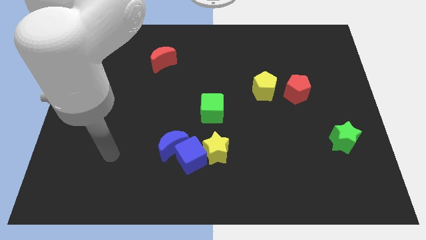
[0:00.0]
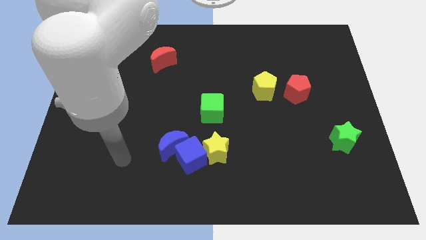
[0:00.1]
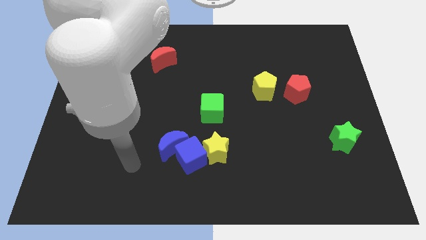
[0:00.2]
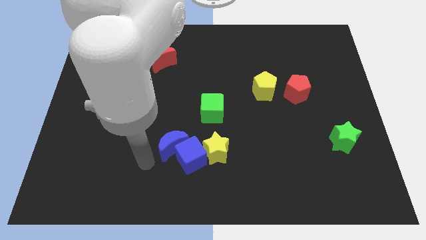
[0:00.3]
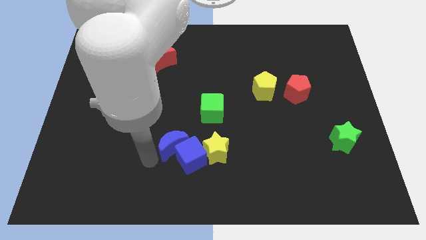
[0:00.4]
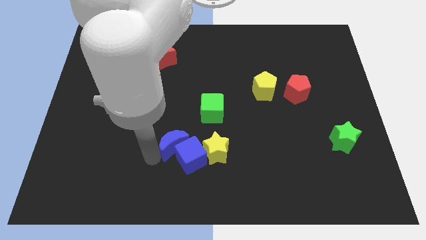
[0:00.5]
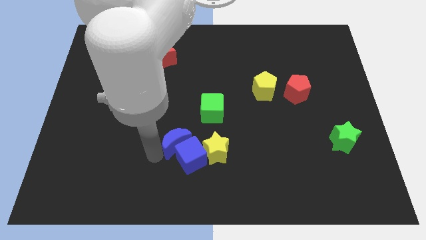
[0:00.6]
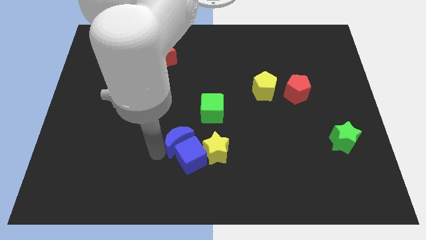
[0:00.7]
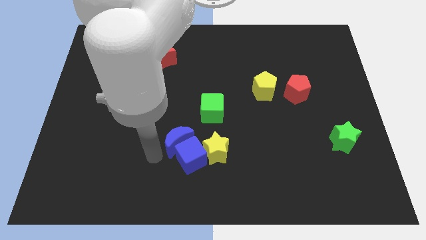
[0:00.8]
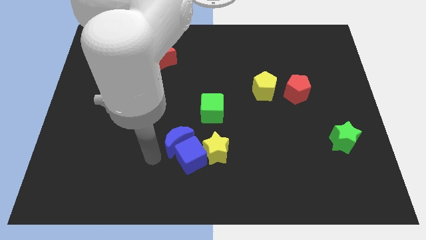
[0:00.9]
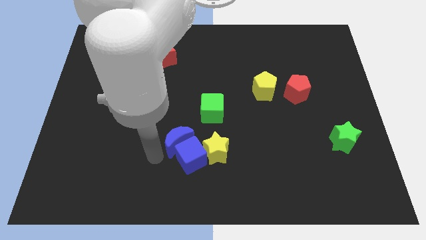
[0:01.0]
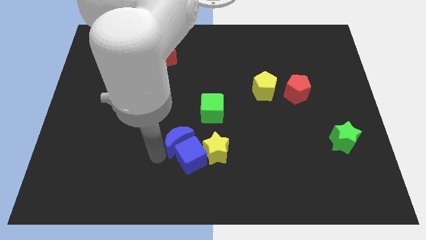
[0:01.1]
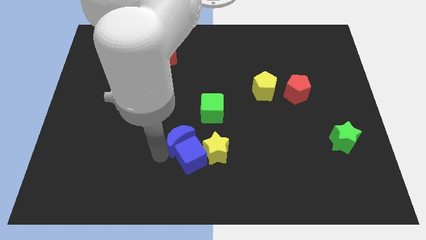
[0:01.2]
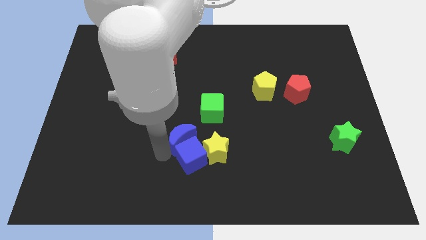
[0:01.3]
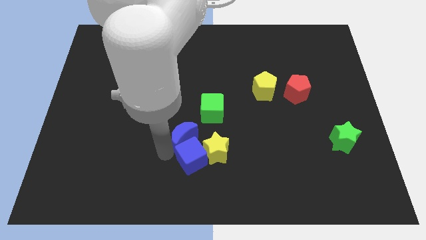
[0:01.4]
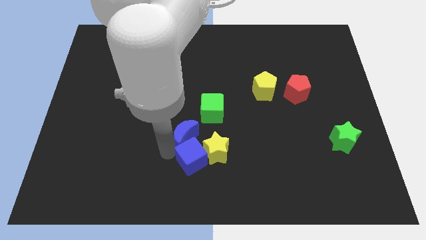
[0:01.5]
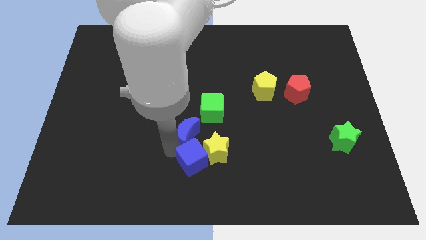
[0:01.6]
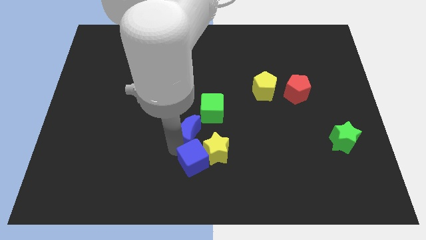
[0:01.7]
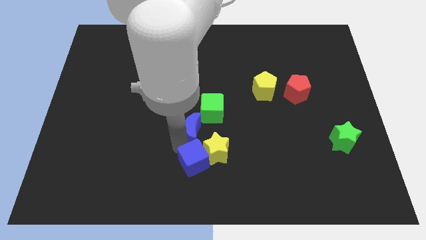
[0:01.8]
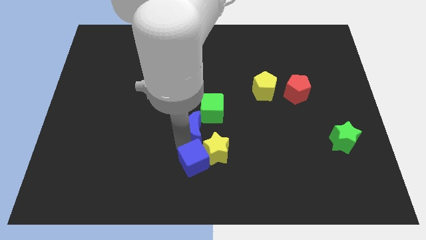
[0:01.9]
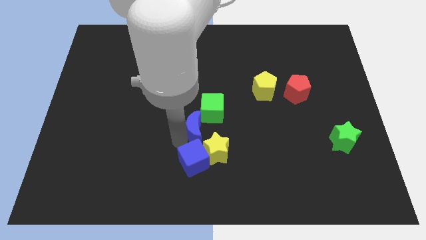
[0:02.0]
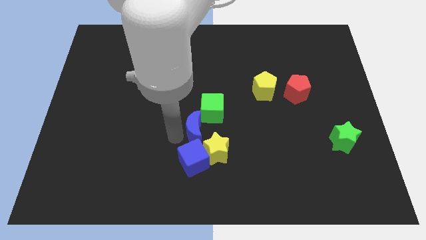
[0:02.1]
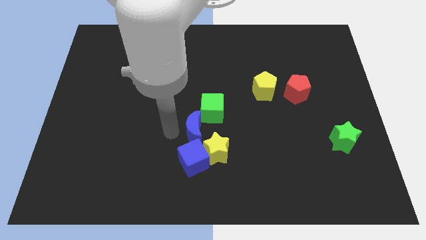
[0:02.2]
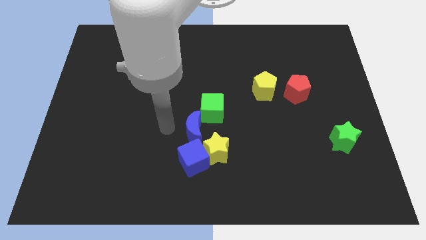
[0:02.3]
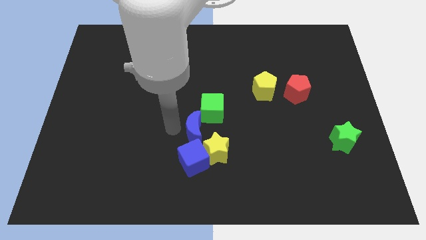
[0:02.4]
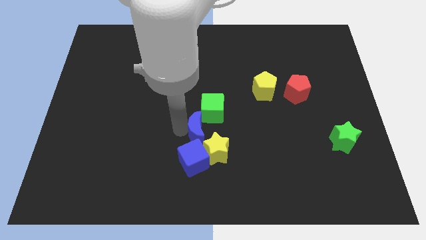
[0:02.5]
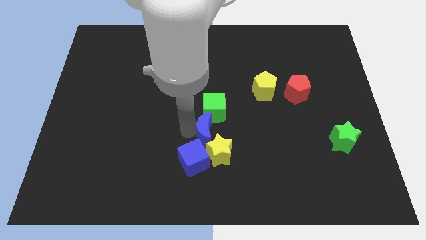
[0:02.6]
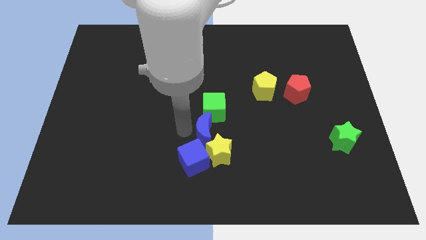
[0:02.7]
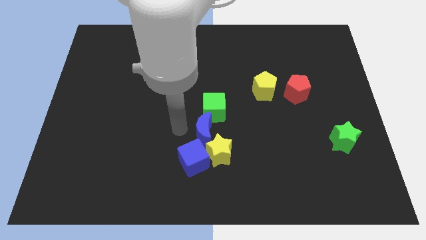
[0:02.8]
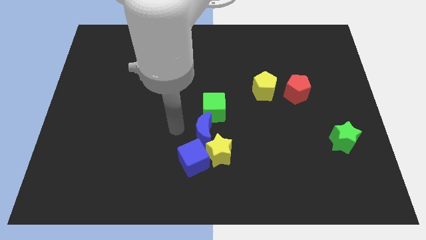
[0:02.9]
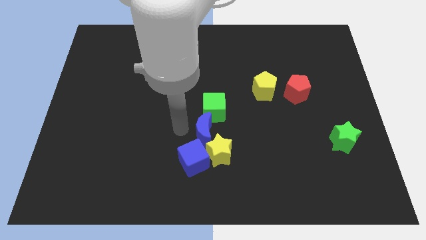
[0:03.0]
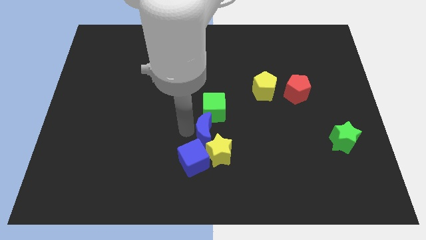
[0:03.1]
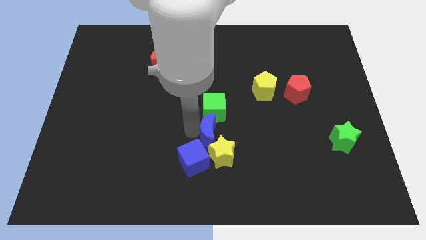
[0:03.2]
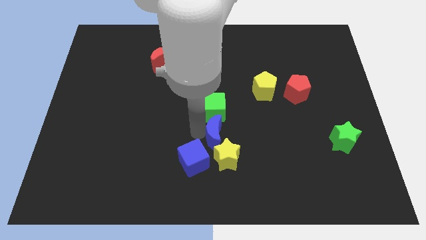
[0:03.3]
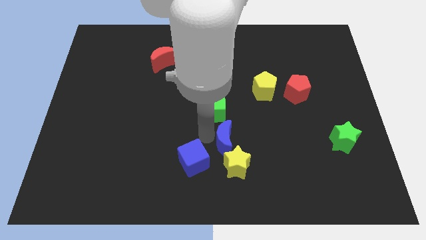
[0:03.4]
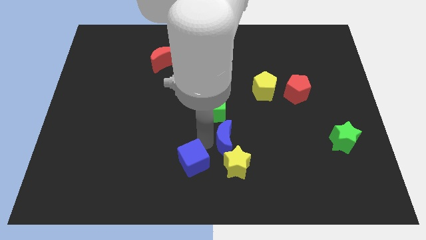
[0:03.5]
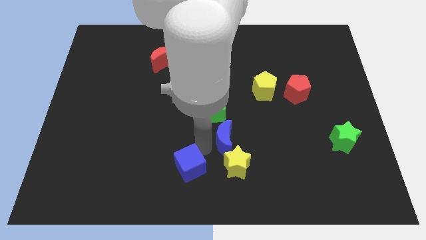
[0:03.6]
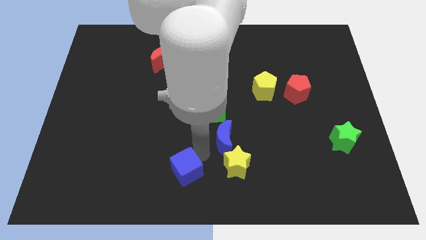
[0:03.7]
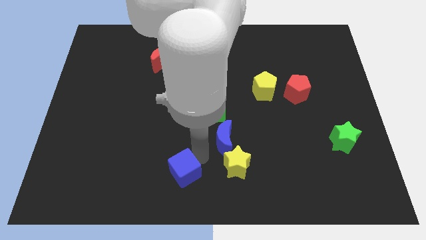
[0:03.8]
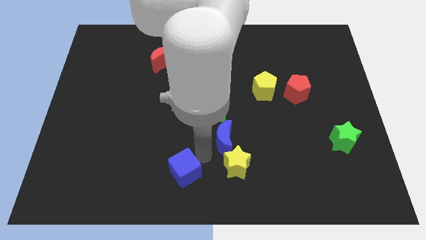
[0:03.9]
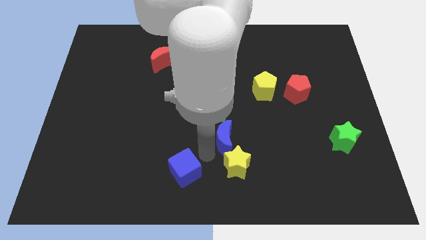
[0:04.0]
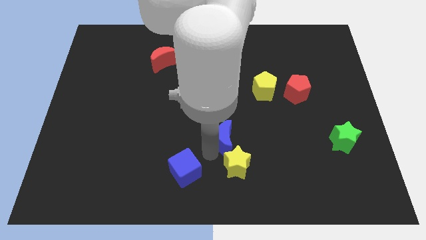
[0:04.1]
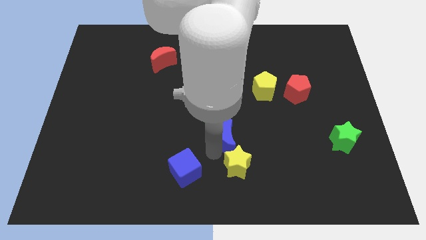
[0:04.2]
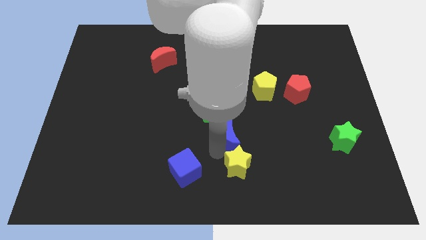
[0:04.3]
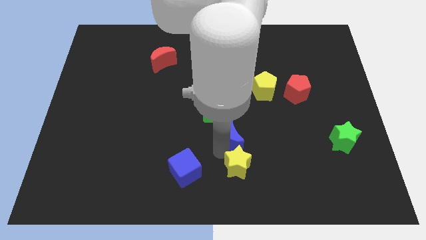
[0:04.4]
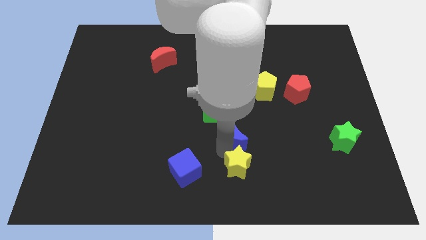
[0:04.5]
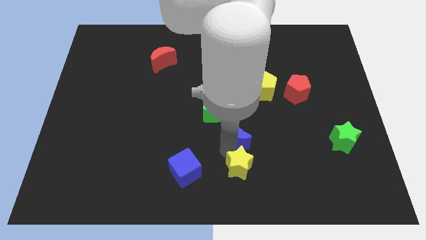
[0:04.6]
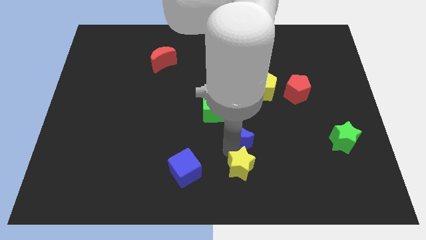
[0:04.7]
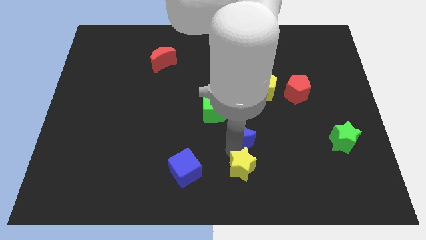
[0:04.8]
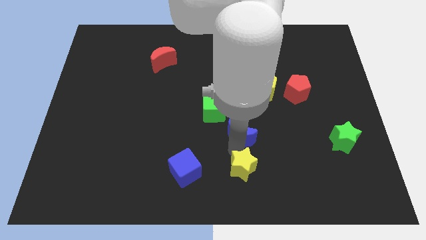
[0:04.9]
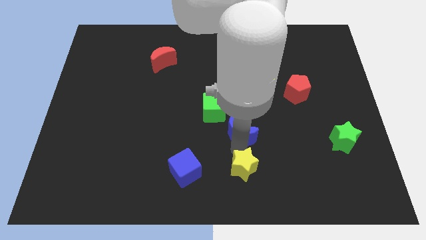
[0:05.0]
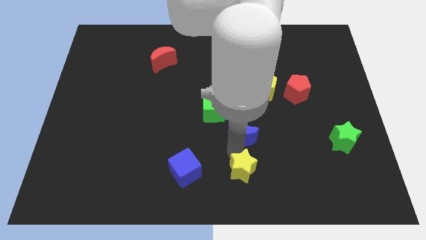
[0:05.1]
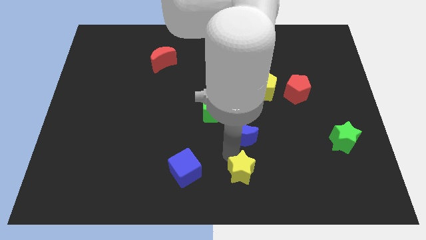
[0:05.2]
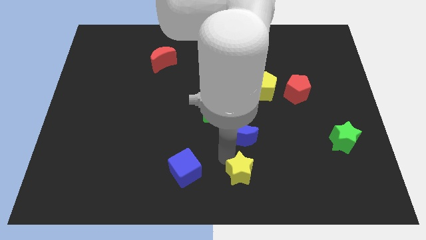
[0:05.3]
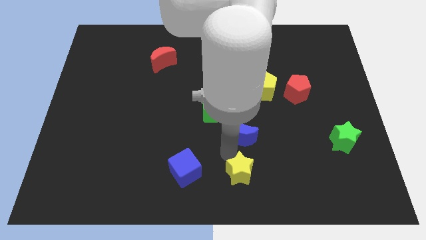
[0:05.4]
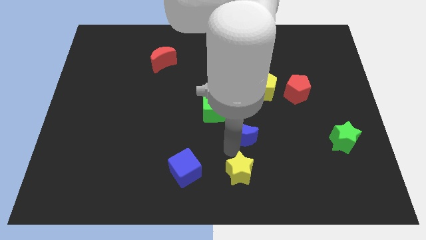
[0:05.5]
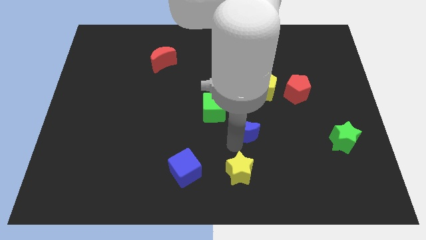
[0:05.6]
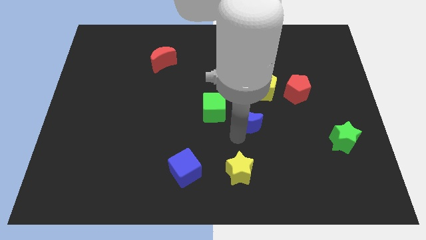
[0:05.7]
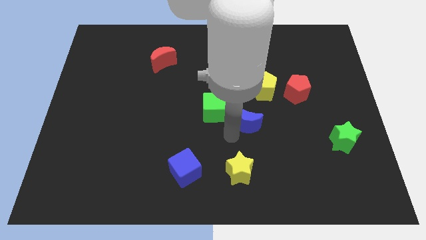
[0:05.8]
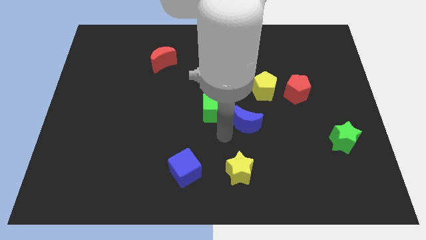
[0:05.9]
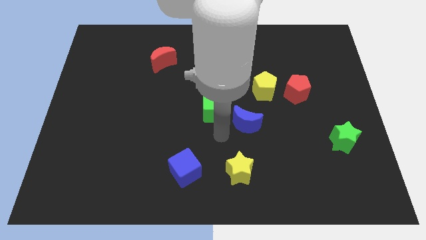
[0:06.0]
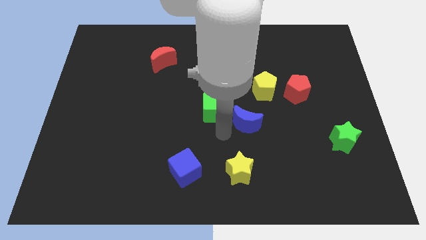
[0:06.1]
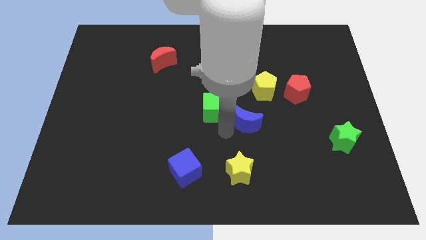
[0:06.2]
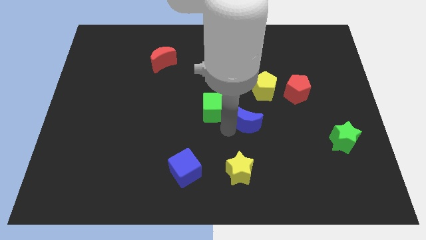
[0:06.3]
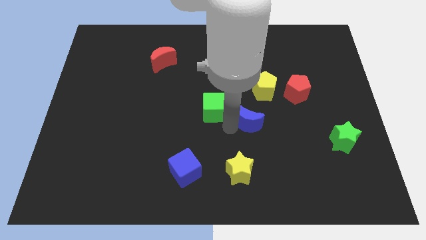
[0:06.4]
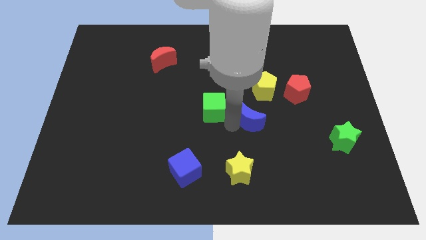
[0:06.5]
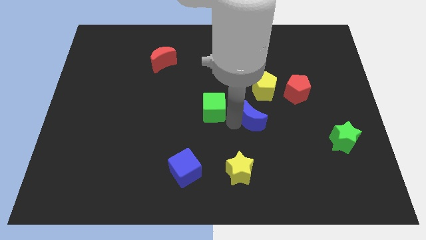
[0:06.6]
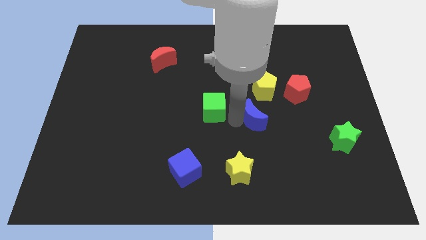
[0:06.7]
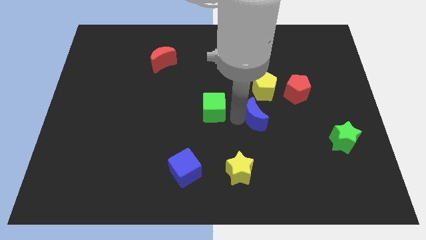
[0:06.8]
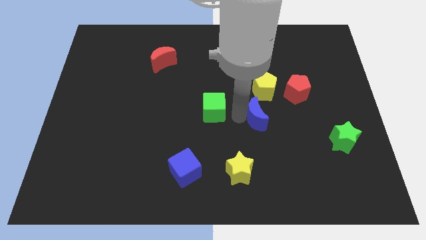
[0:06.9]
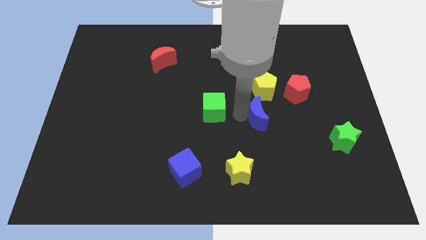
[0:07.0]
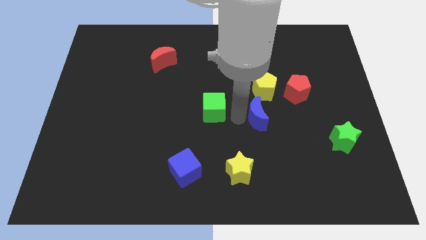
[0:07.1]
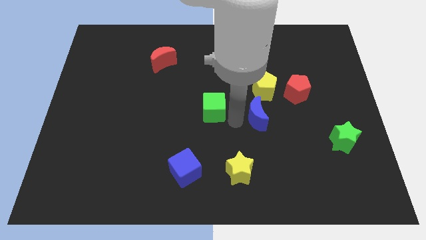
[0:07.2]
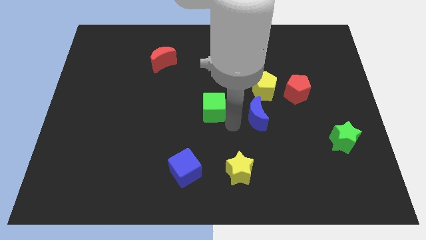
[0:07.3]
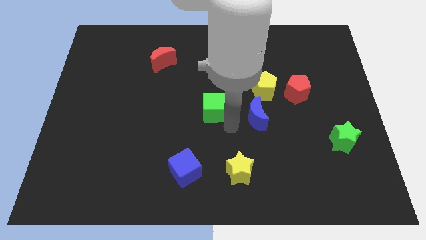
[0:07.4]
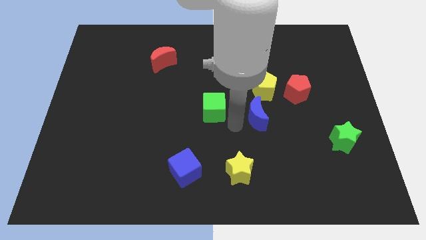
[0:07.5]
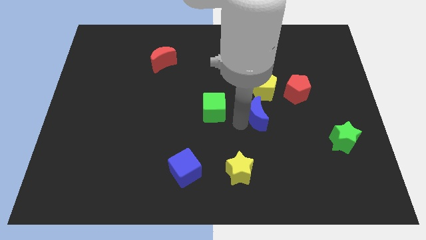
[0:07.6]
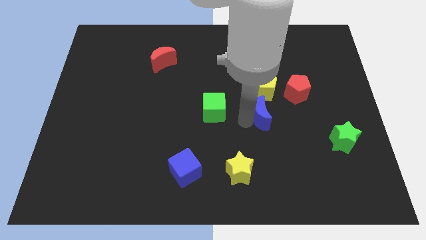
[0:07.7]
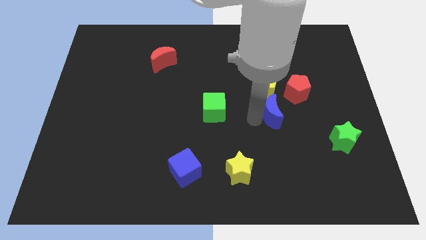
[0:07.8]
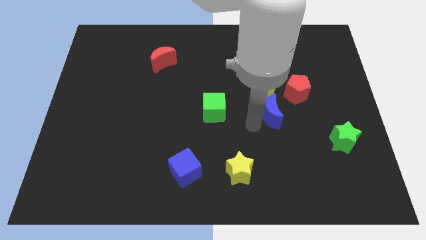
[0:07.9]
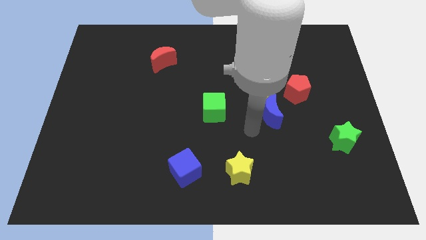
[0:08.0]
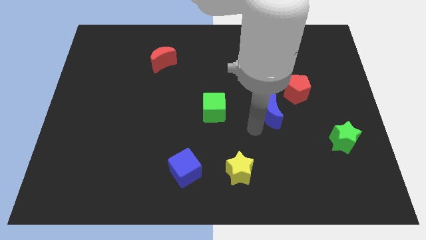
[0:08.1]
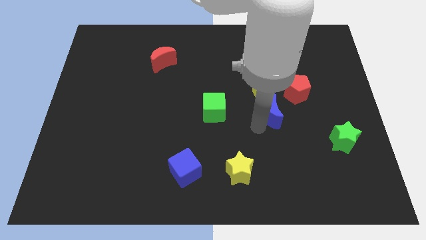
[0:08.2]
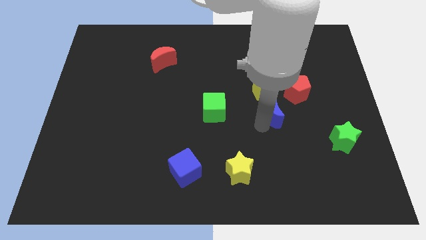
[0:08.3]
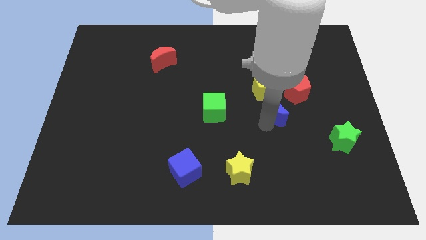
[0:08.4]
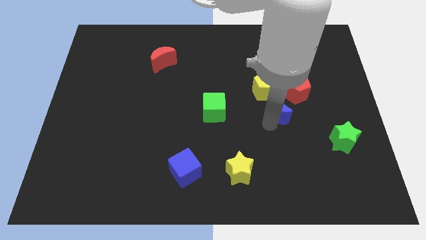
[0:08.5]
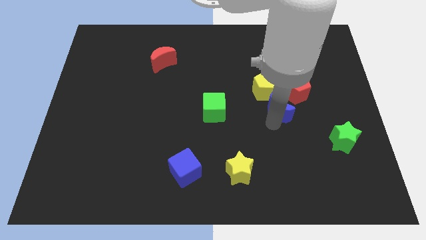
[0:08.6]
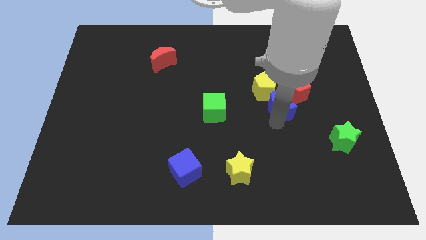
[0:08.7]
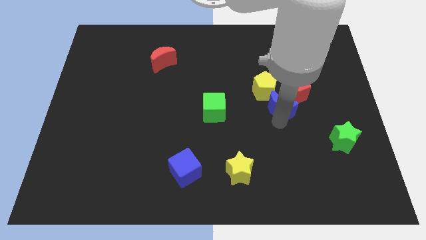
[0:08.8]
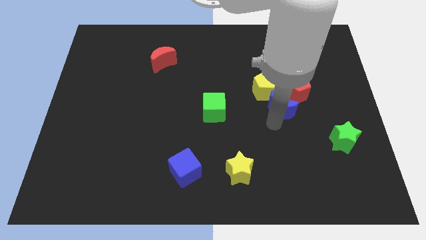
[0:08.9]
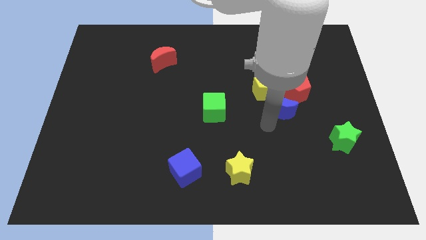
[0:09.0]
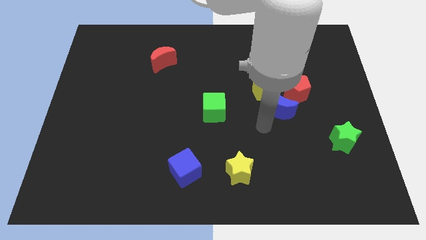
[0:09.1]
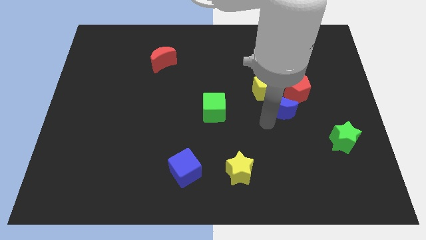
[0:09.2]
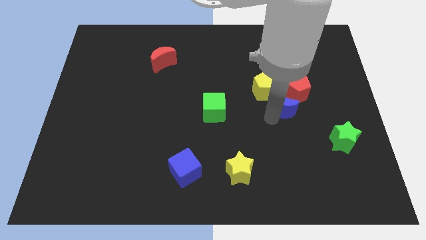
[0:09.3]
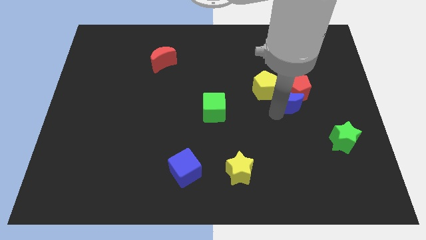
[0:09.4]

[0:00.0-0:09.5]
move the blue moon towards the red pentagon
